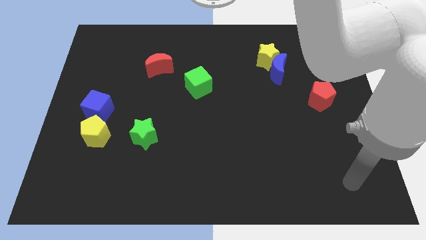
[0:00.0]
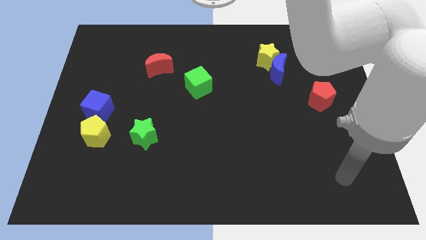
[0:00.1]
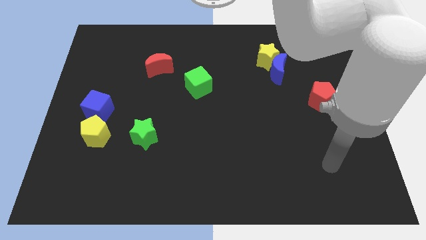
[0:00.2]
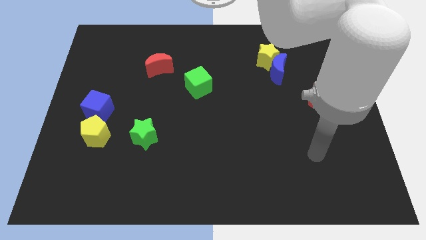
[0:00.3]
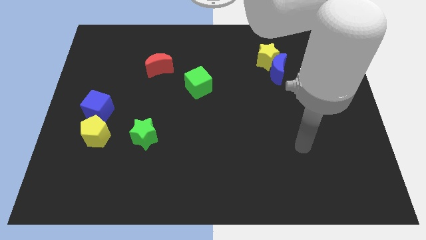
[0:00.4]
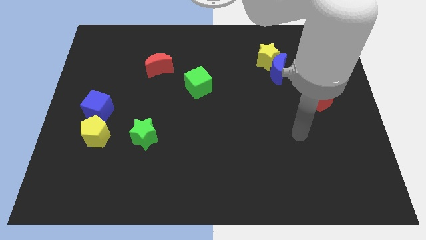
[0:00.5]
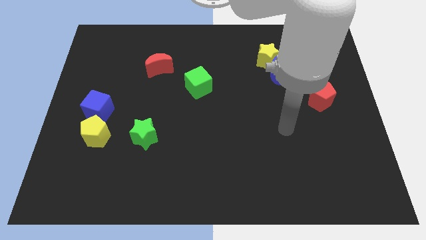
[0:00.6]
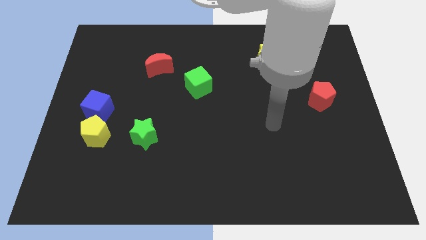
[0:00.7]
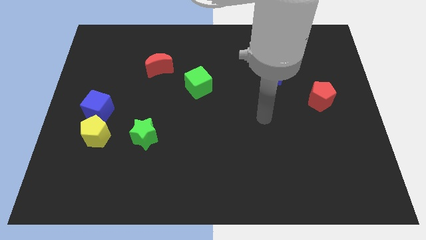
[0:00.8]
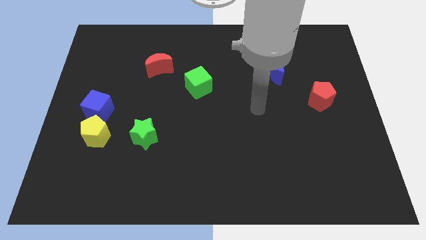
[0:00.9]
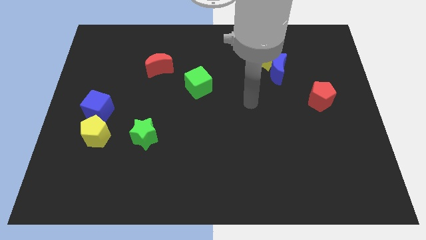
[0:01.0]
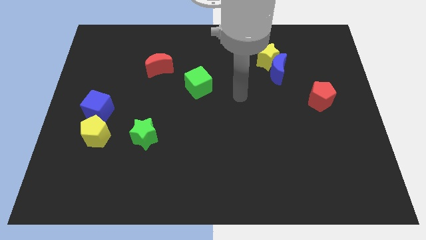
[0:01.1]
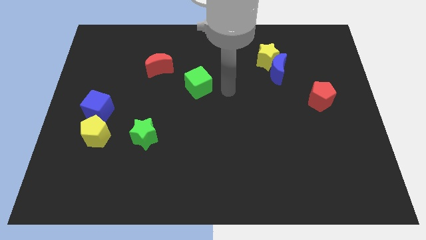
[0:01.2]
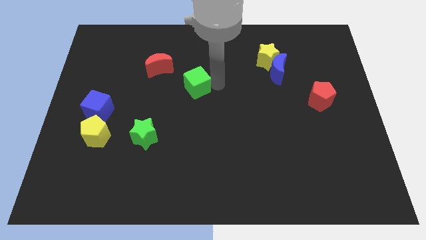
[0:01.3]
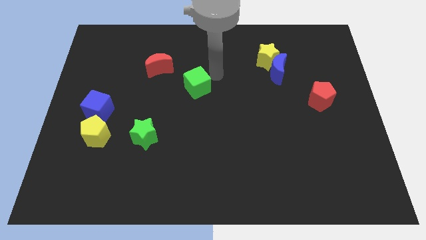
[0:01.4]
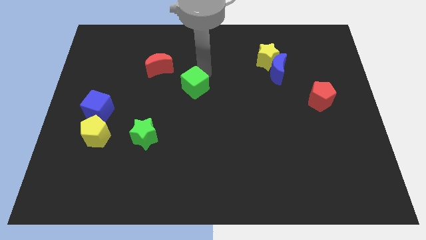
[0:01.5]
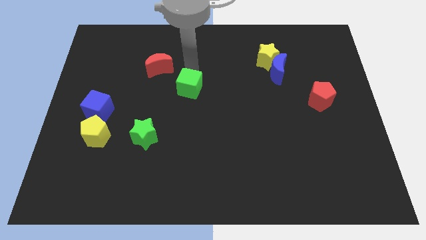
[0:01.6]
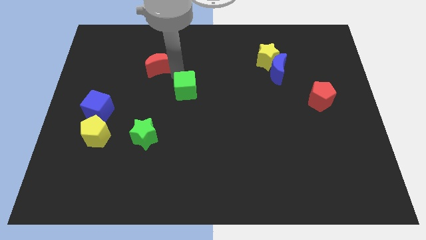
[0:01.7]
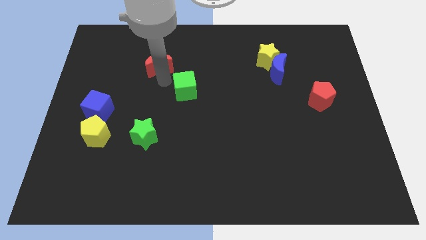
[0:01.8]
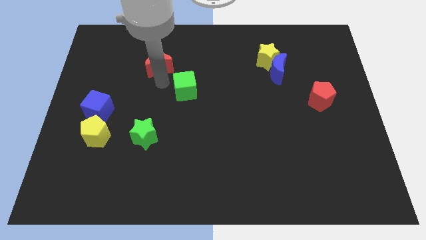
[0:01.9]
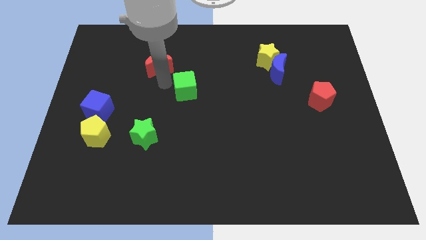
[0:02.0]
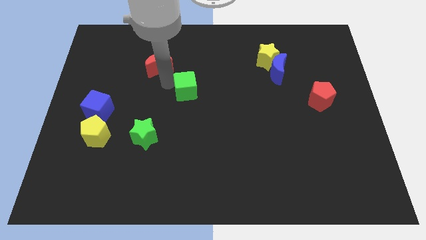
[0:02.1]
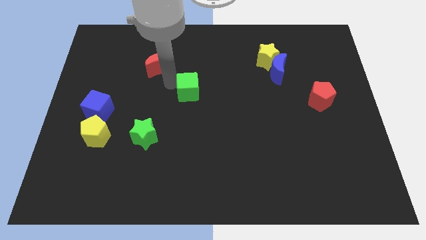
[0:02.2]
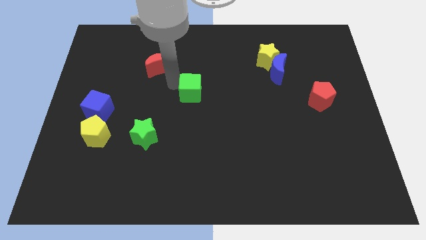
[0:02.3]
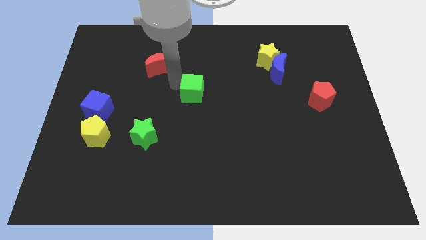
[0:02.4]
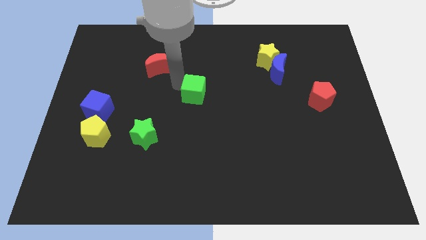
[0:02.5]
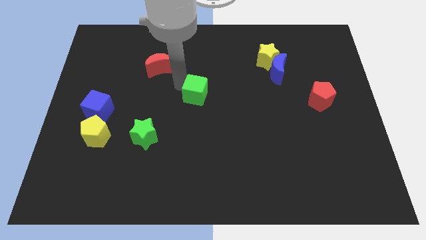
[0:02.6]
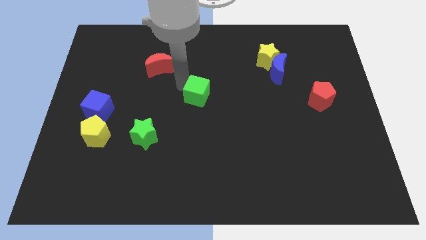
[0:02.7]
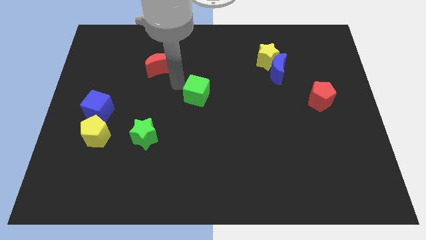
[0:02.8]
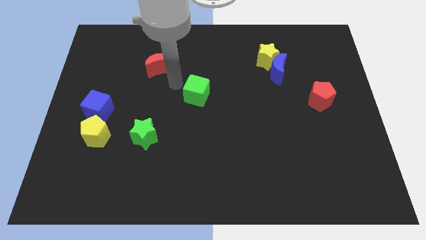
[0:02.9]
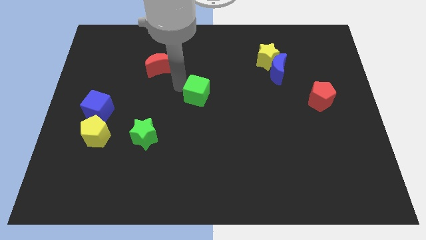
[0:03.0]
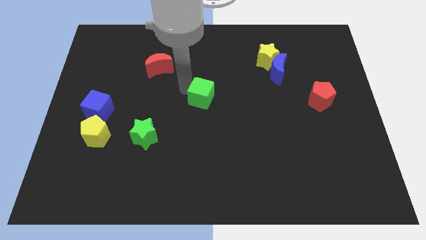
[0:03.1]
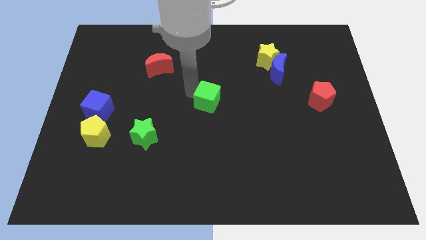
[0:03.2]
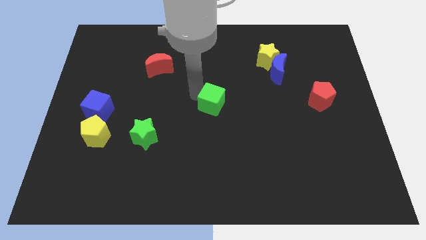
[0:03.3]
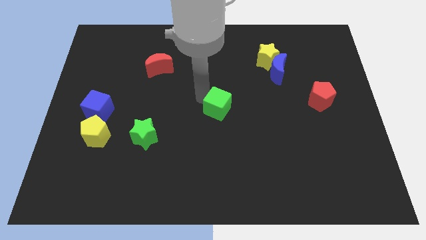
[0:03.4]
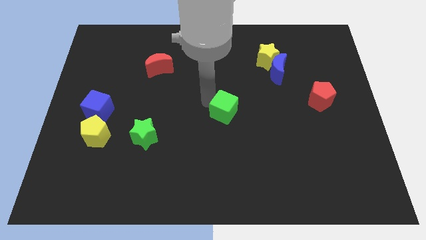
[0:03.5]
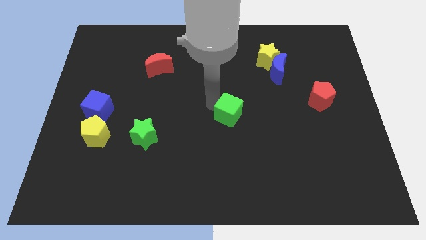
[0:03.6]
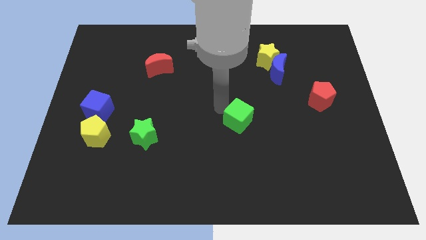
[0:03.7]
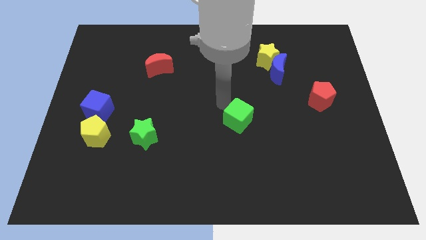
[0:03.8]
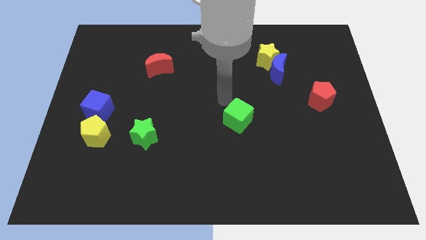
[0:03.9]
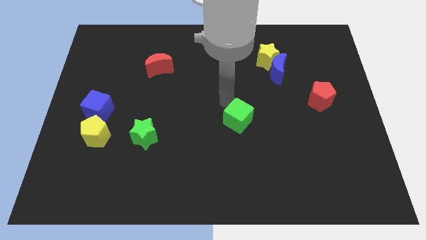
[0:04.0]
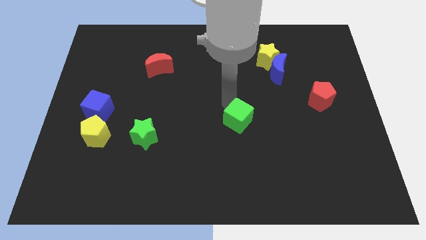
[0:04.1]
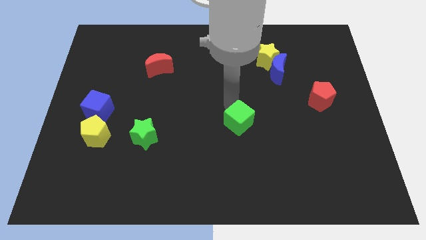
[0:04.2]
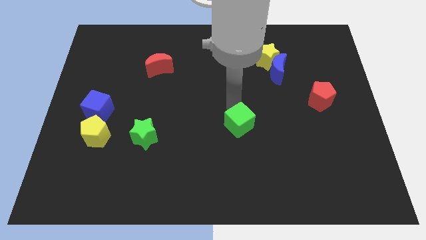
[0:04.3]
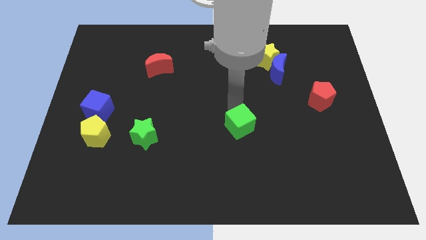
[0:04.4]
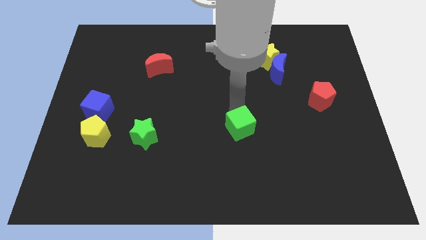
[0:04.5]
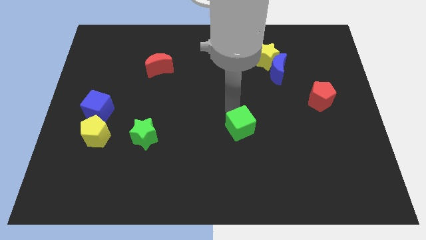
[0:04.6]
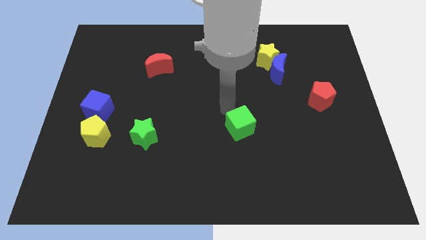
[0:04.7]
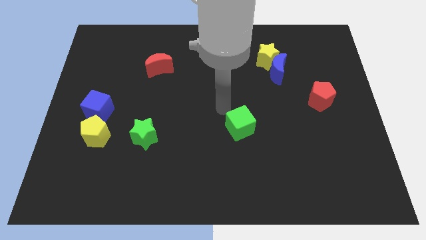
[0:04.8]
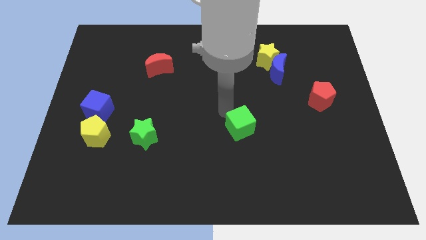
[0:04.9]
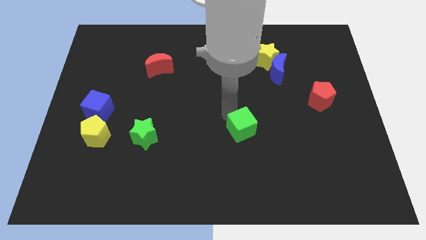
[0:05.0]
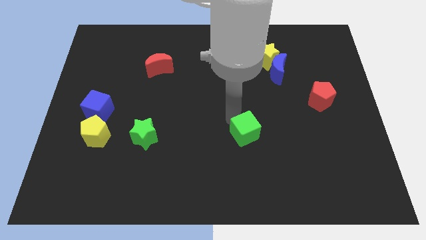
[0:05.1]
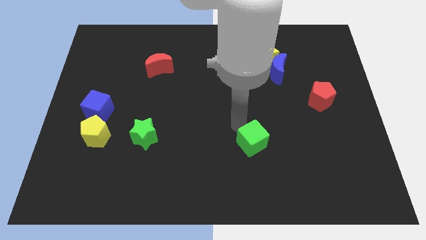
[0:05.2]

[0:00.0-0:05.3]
slide the green cube downwards and then to the right

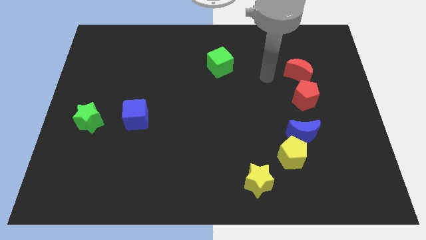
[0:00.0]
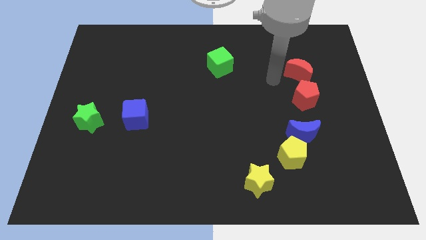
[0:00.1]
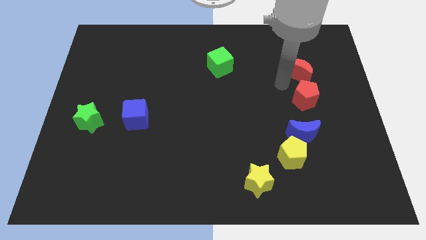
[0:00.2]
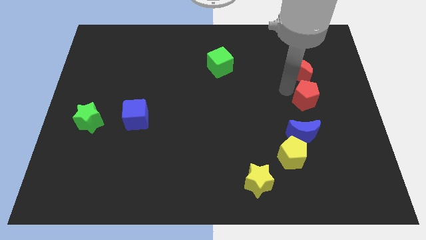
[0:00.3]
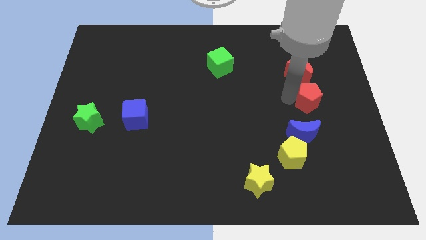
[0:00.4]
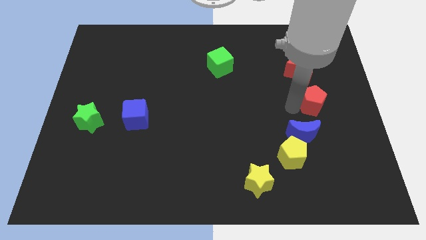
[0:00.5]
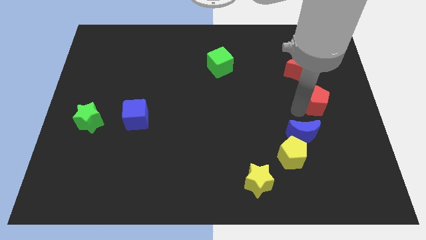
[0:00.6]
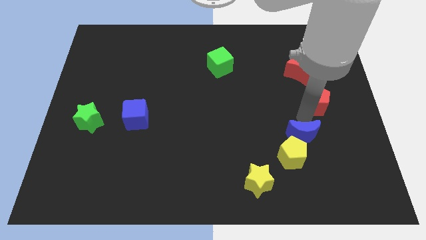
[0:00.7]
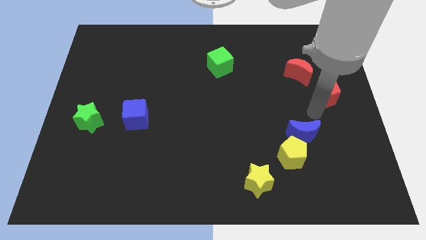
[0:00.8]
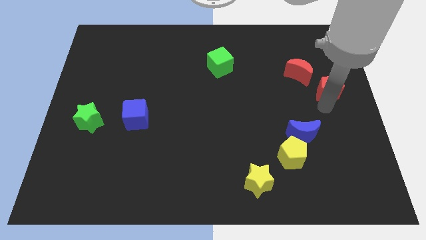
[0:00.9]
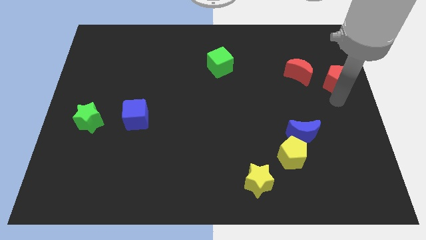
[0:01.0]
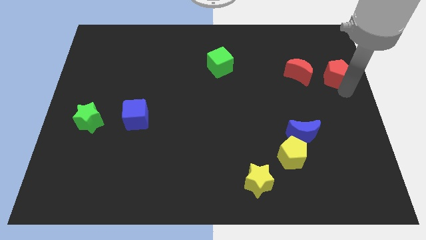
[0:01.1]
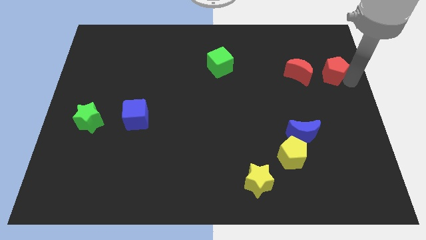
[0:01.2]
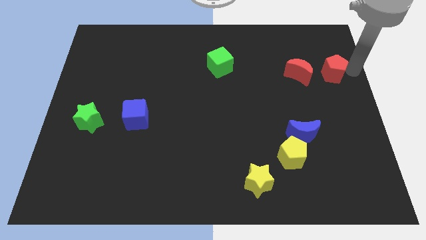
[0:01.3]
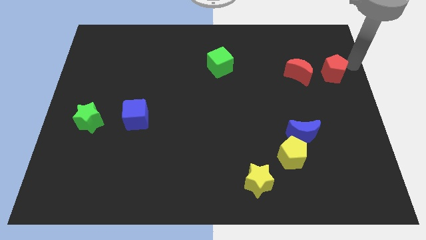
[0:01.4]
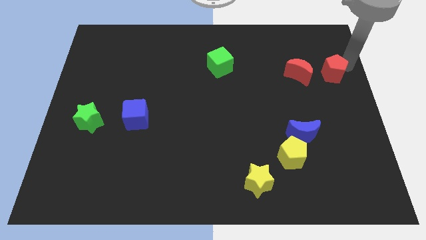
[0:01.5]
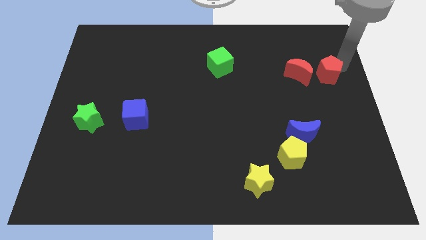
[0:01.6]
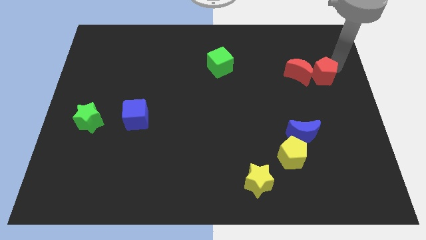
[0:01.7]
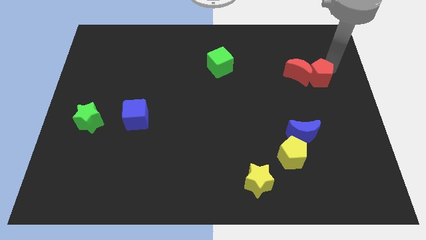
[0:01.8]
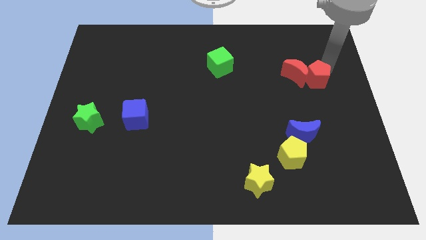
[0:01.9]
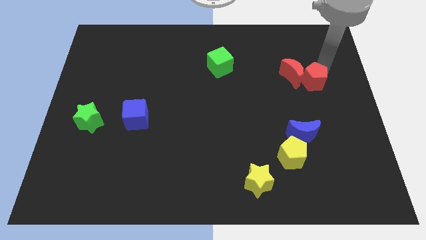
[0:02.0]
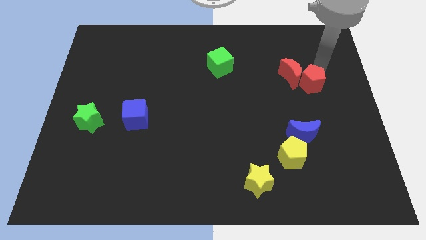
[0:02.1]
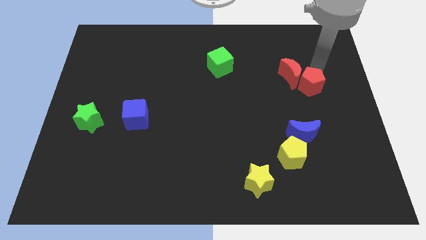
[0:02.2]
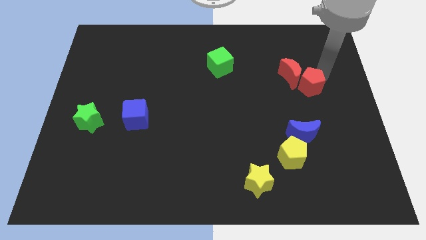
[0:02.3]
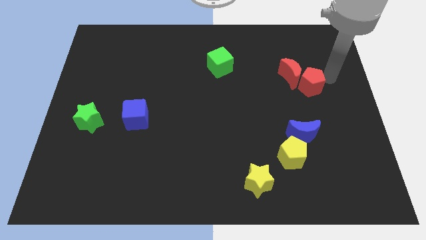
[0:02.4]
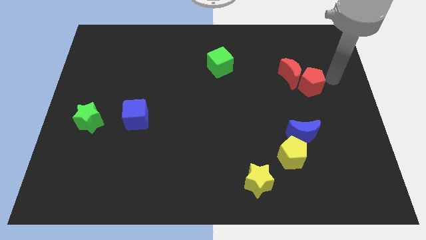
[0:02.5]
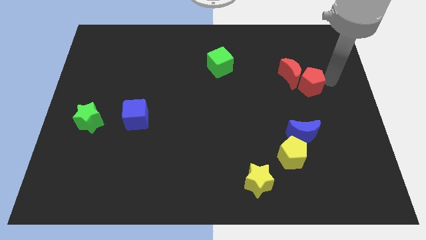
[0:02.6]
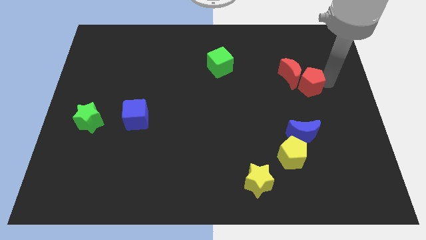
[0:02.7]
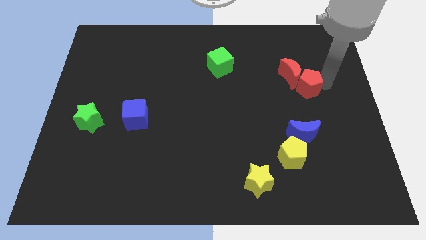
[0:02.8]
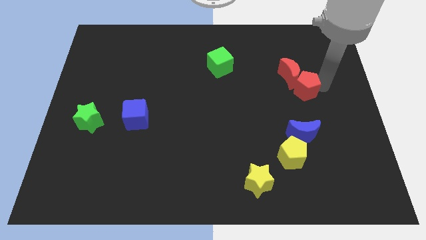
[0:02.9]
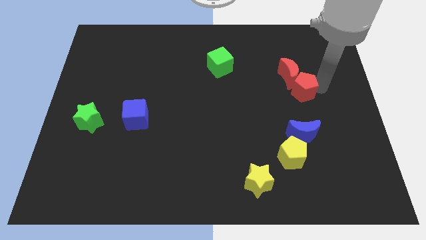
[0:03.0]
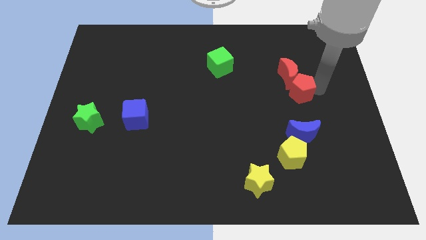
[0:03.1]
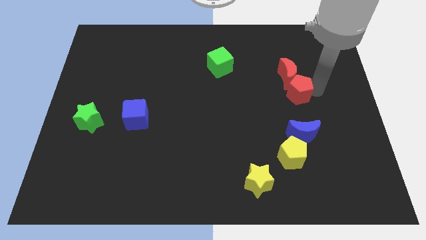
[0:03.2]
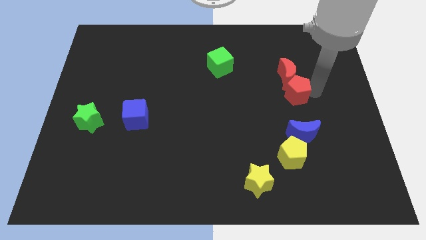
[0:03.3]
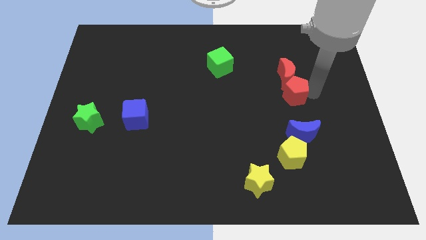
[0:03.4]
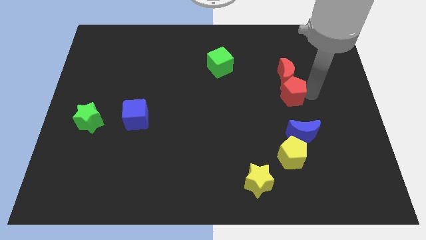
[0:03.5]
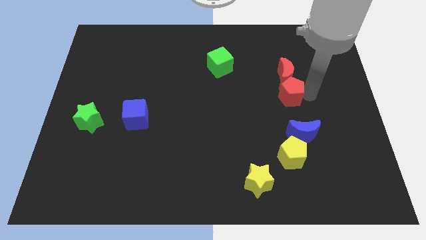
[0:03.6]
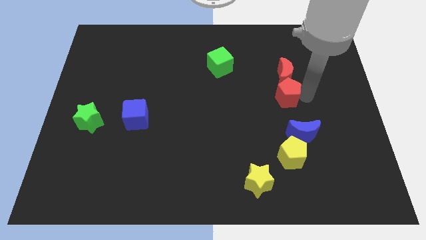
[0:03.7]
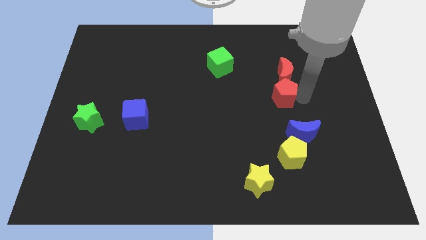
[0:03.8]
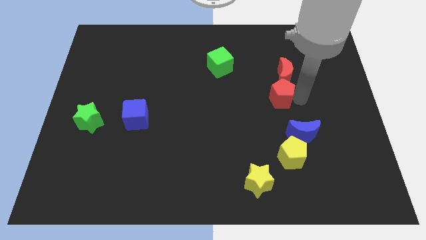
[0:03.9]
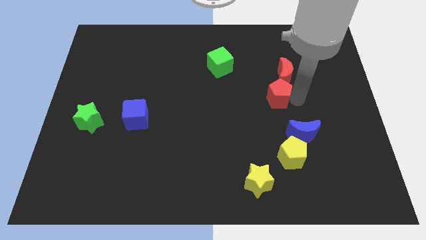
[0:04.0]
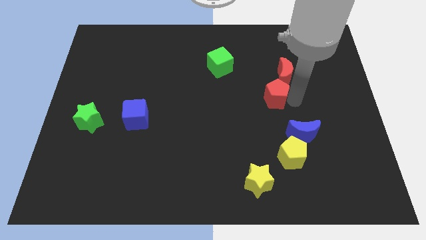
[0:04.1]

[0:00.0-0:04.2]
slide the red pentagon left slightly
